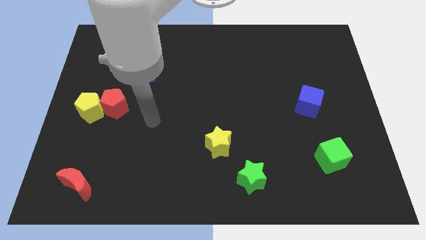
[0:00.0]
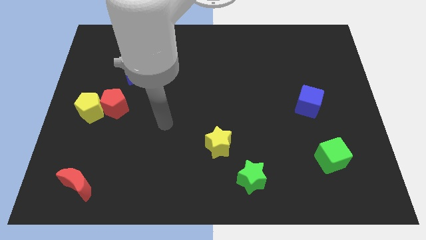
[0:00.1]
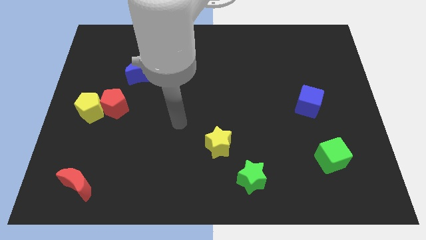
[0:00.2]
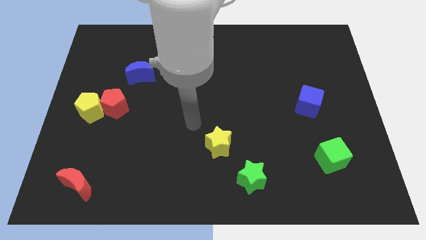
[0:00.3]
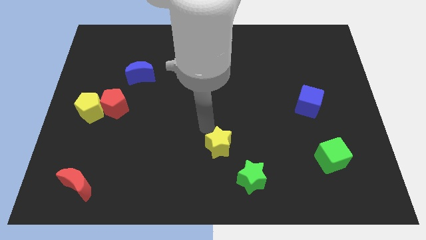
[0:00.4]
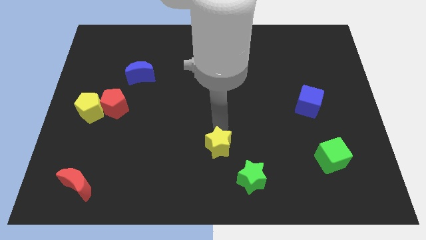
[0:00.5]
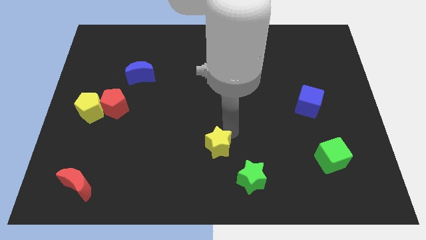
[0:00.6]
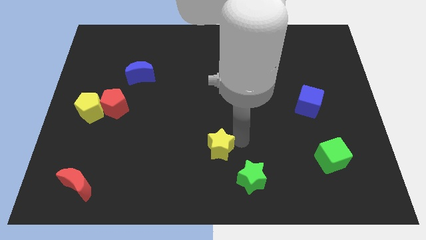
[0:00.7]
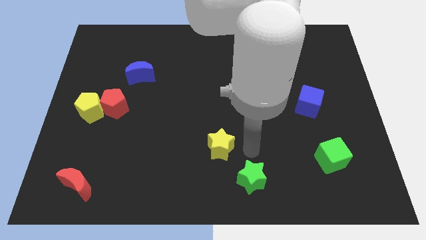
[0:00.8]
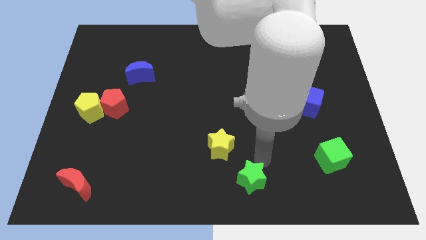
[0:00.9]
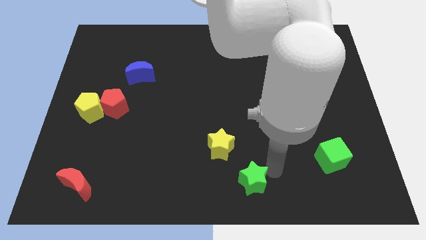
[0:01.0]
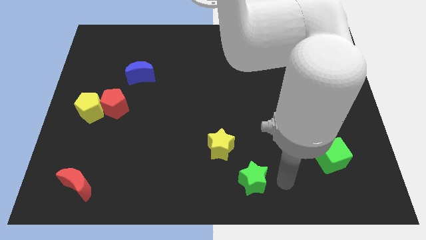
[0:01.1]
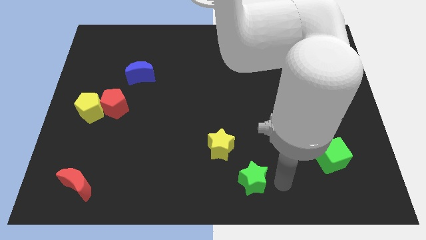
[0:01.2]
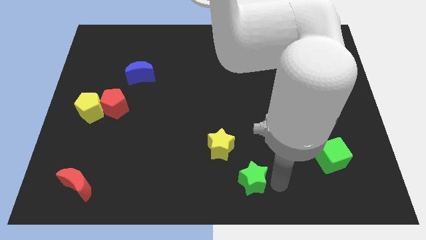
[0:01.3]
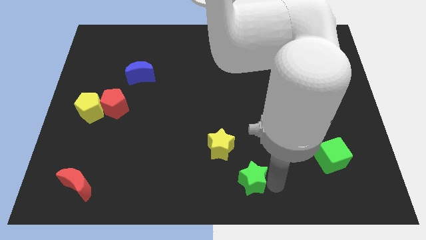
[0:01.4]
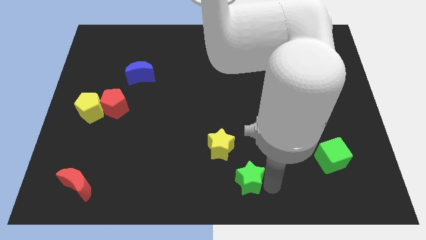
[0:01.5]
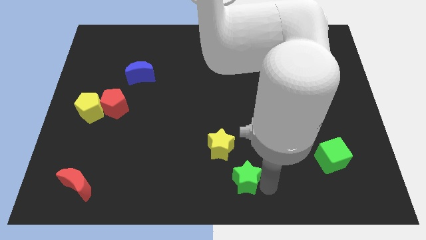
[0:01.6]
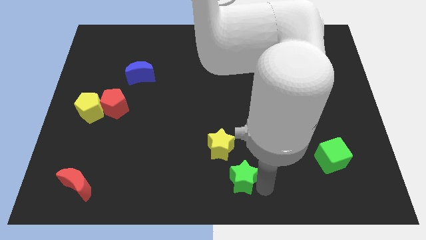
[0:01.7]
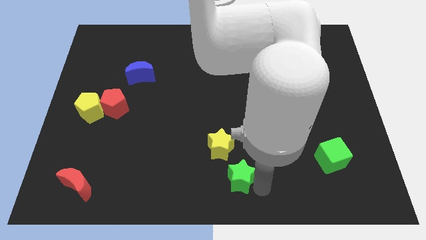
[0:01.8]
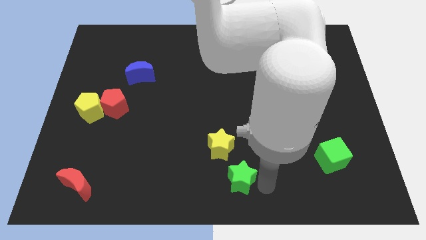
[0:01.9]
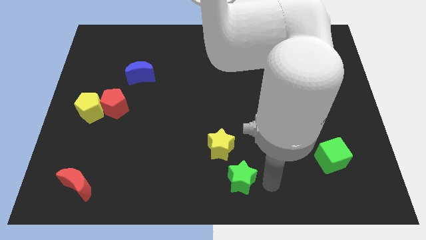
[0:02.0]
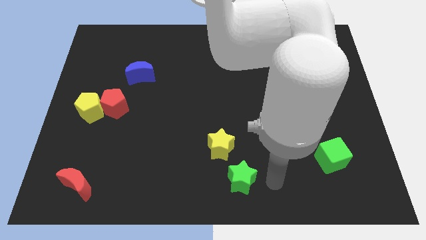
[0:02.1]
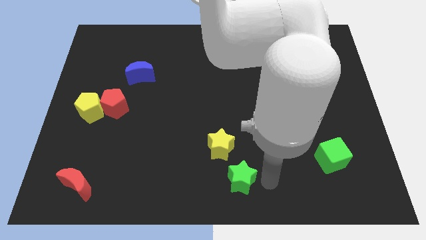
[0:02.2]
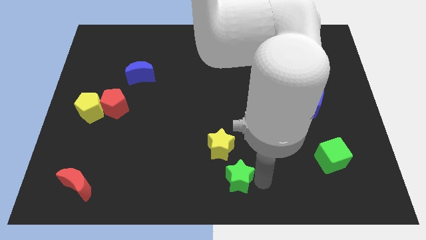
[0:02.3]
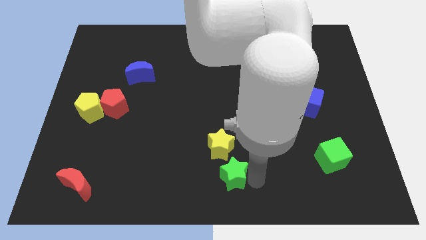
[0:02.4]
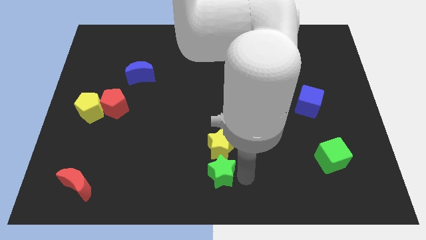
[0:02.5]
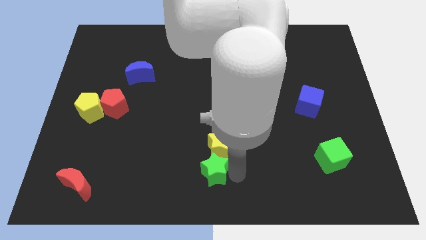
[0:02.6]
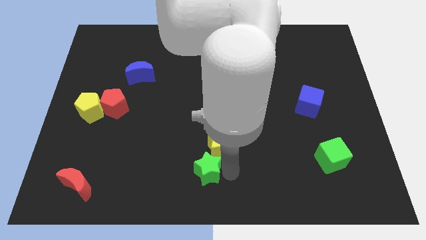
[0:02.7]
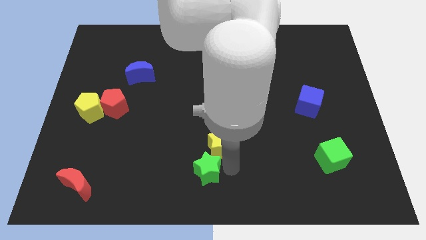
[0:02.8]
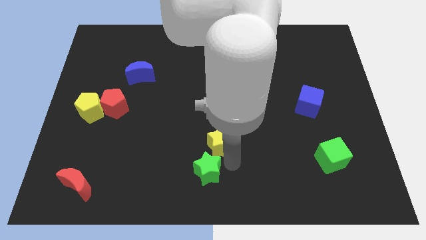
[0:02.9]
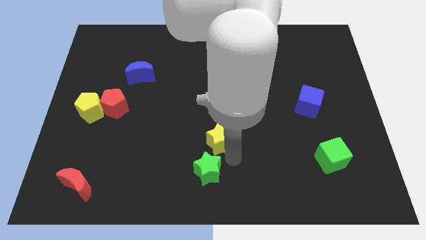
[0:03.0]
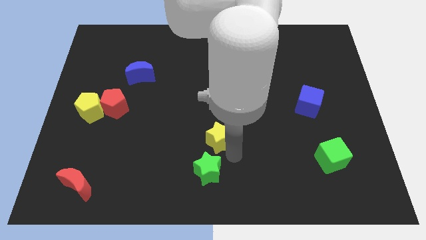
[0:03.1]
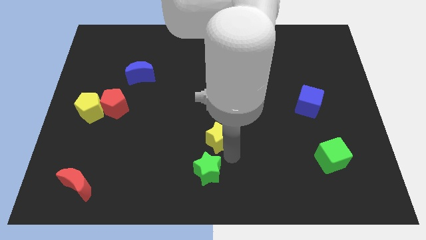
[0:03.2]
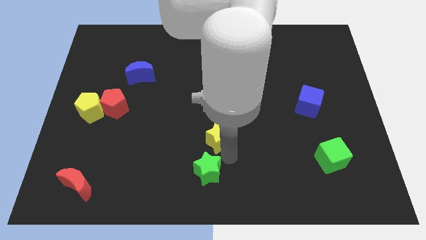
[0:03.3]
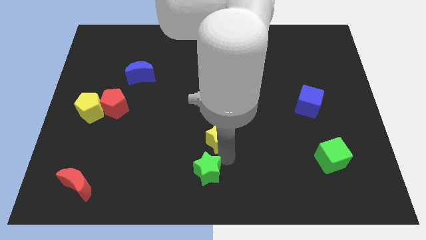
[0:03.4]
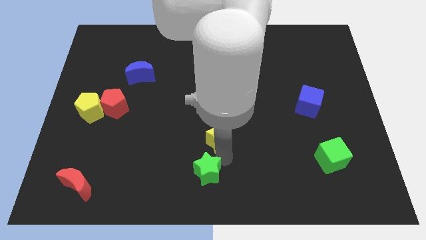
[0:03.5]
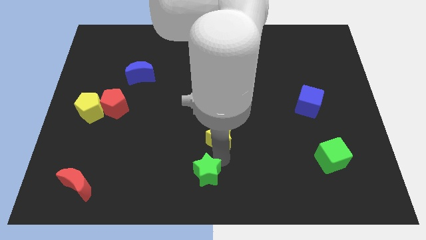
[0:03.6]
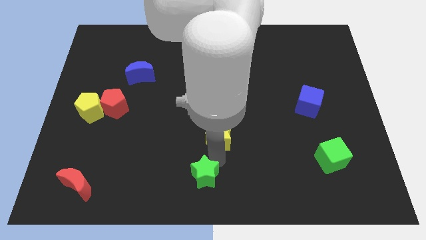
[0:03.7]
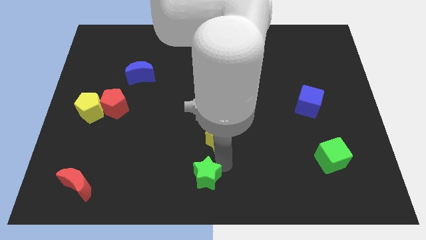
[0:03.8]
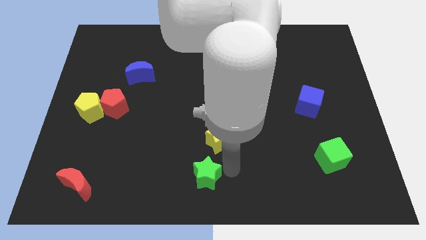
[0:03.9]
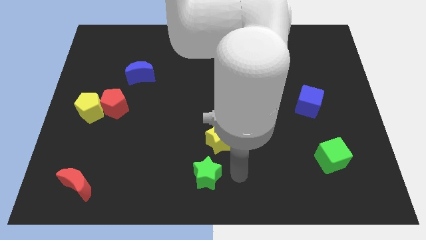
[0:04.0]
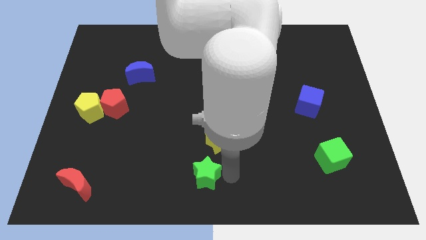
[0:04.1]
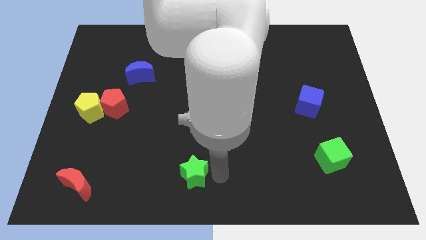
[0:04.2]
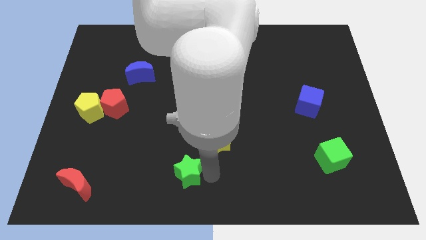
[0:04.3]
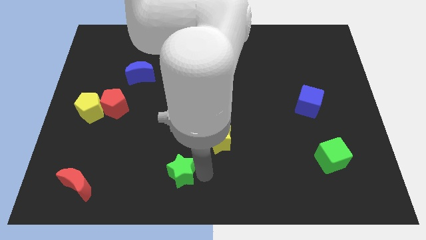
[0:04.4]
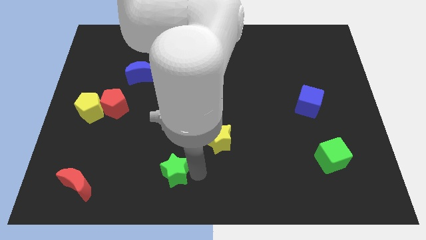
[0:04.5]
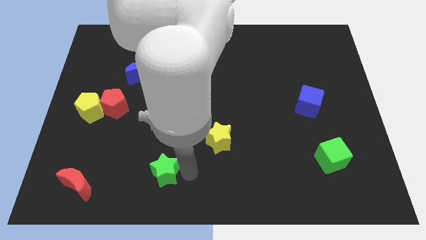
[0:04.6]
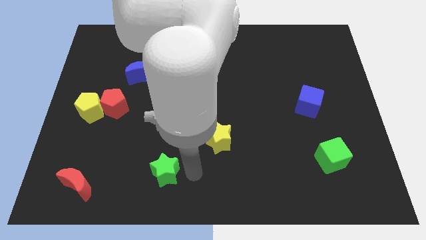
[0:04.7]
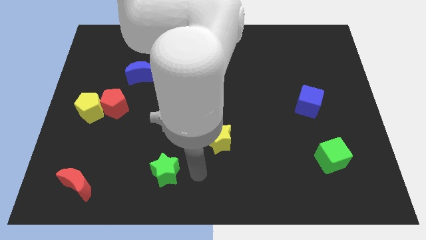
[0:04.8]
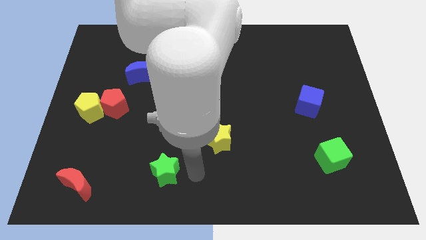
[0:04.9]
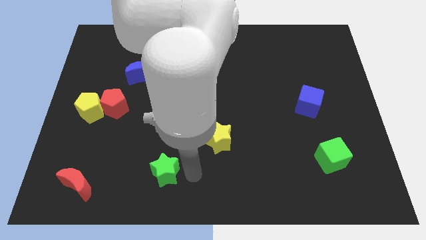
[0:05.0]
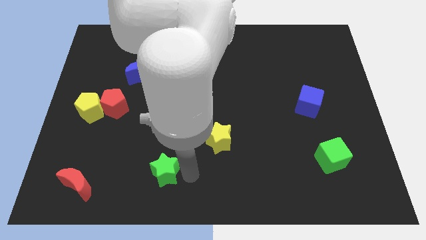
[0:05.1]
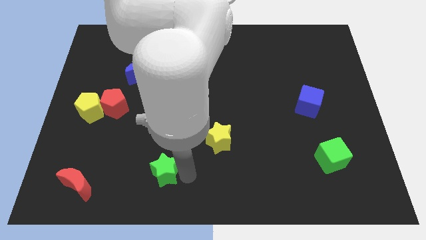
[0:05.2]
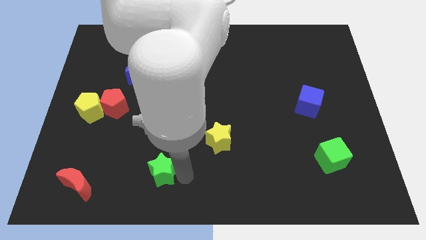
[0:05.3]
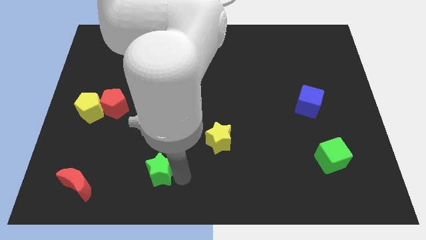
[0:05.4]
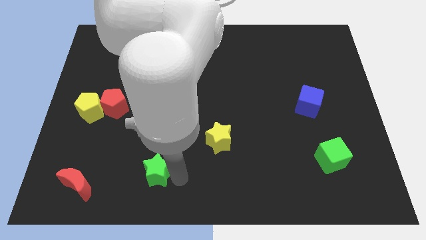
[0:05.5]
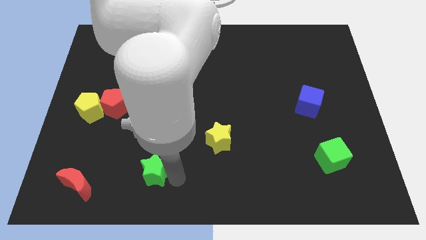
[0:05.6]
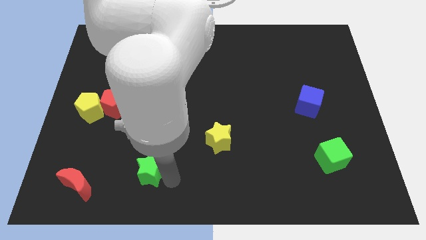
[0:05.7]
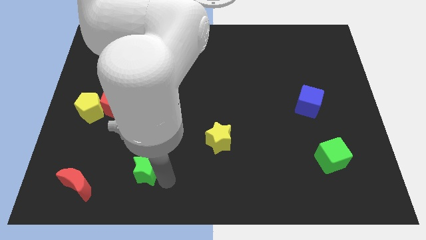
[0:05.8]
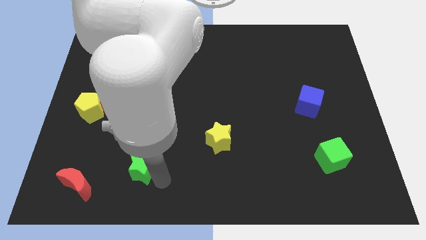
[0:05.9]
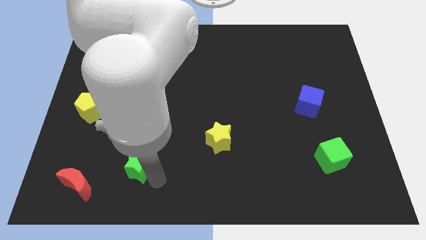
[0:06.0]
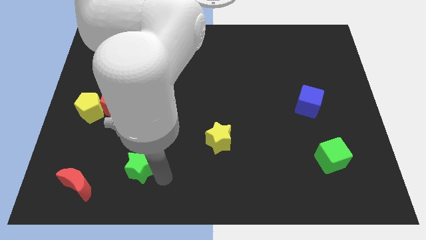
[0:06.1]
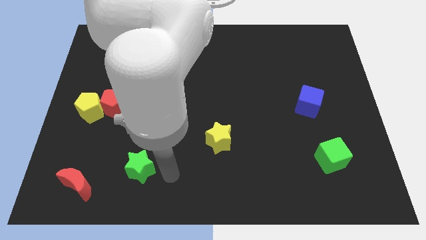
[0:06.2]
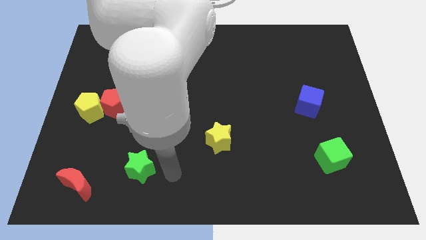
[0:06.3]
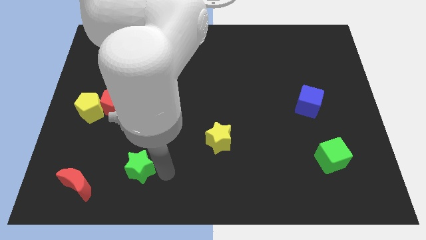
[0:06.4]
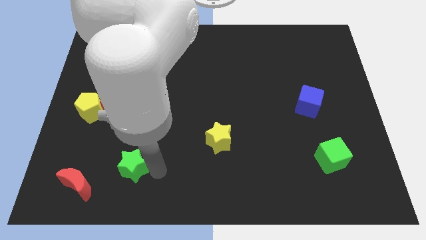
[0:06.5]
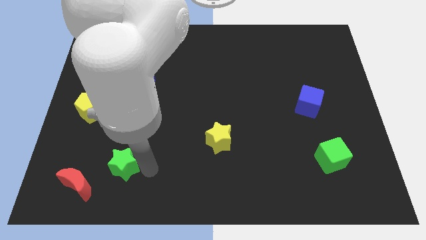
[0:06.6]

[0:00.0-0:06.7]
slide the green star to the top right of the red moon
